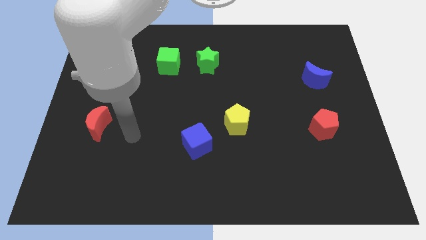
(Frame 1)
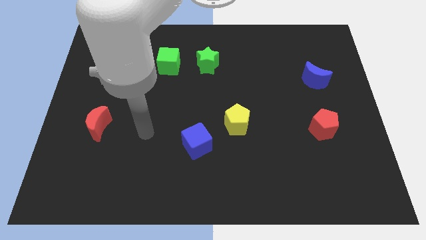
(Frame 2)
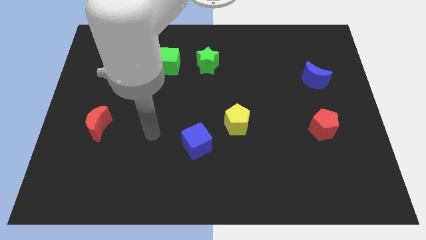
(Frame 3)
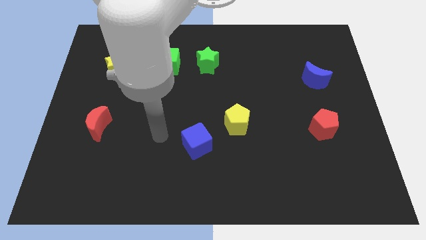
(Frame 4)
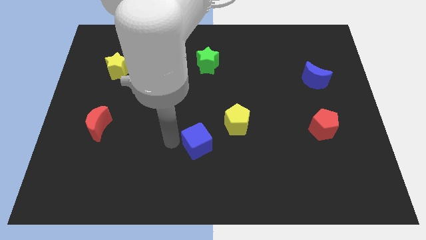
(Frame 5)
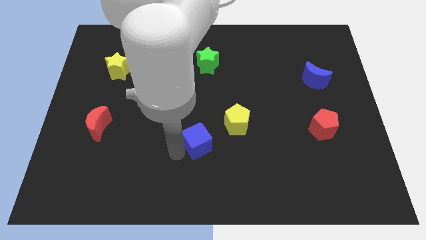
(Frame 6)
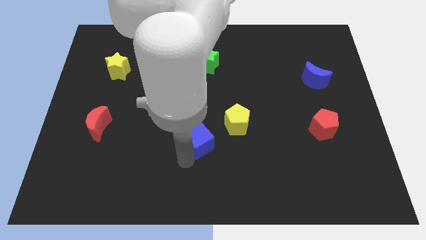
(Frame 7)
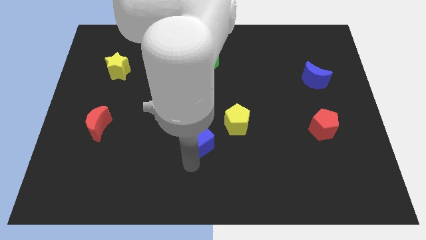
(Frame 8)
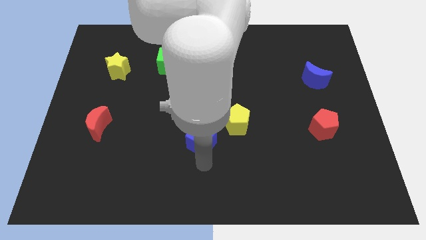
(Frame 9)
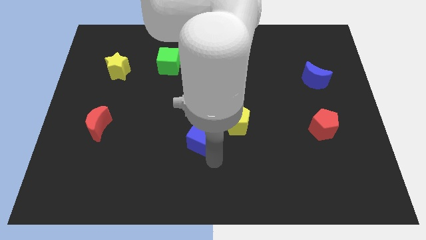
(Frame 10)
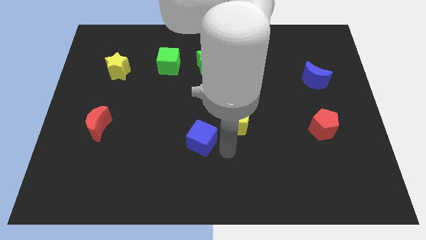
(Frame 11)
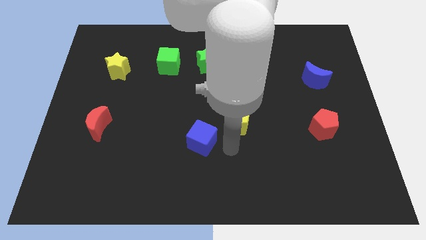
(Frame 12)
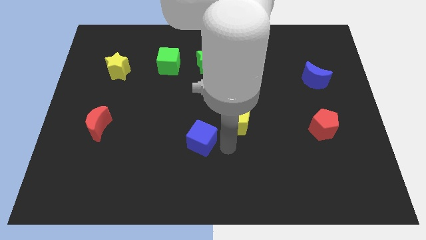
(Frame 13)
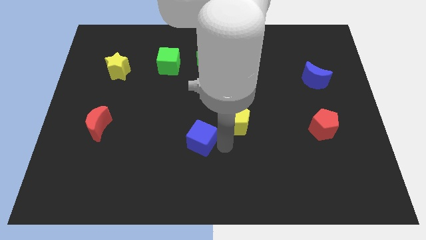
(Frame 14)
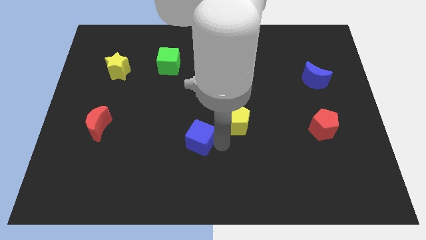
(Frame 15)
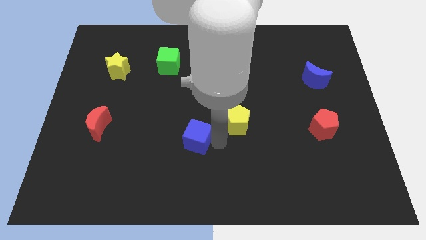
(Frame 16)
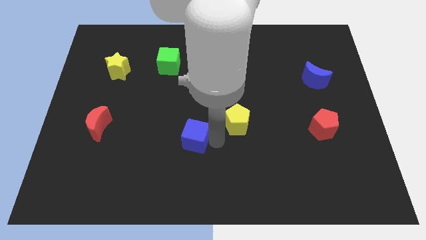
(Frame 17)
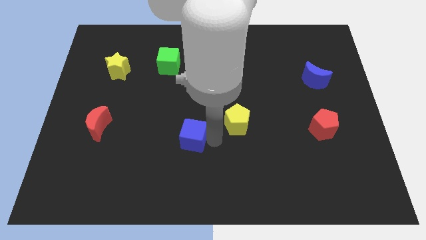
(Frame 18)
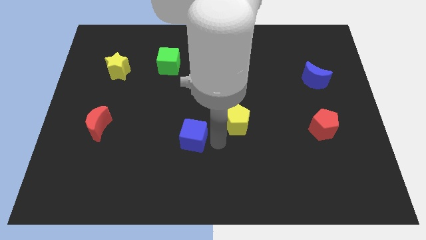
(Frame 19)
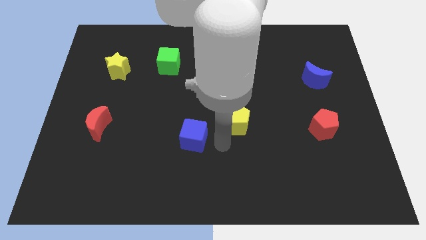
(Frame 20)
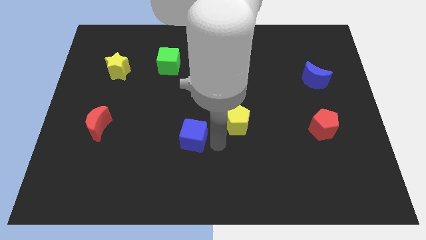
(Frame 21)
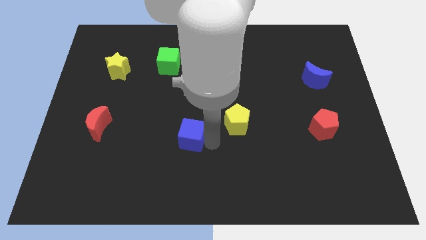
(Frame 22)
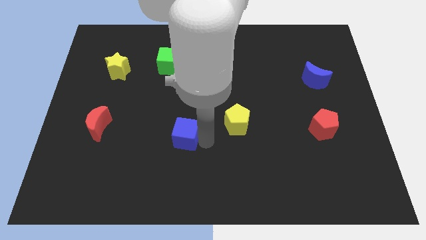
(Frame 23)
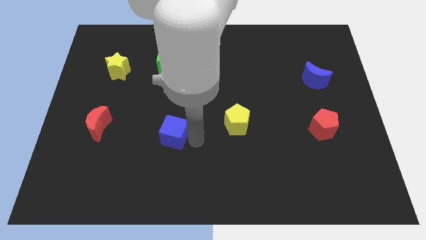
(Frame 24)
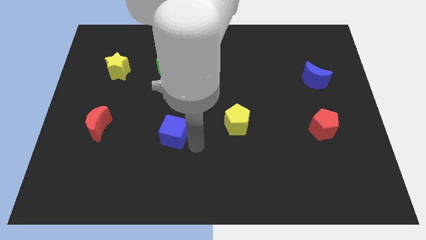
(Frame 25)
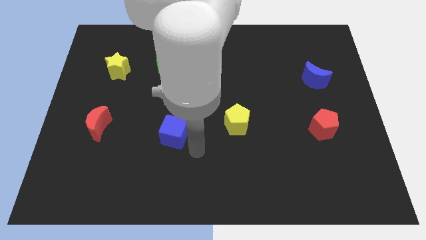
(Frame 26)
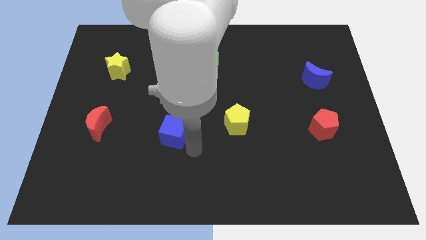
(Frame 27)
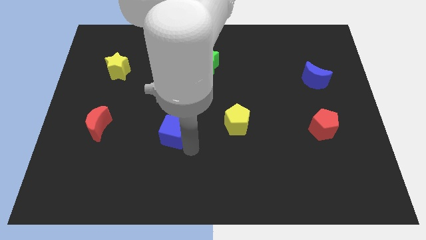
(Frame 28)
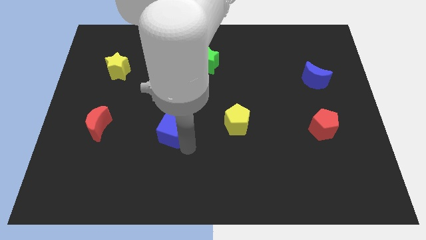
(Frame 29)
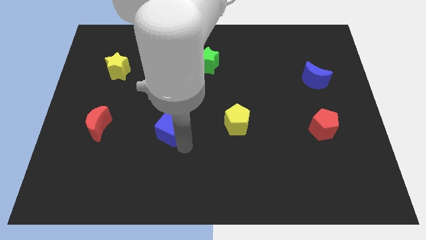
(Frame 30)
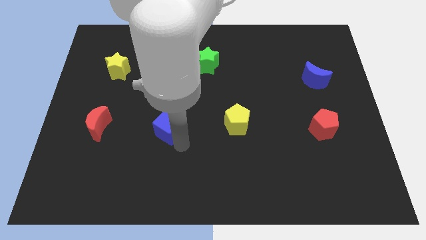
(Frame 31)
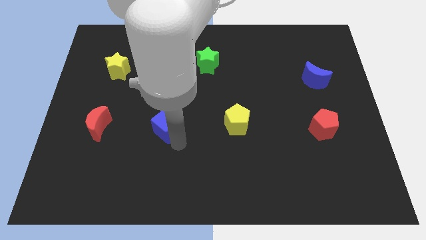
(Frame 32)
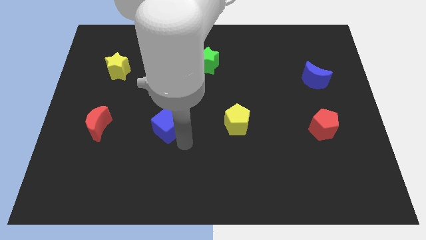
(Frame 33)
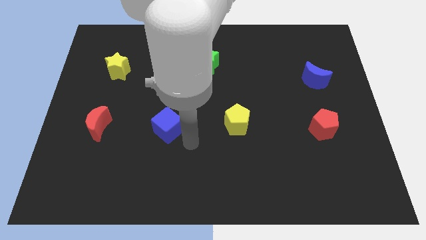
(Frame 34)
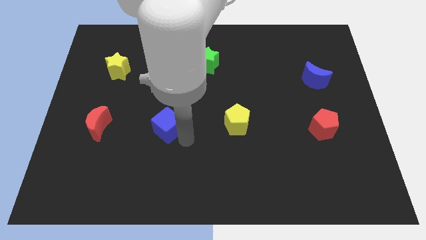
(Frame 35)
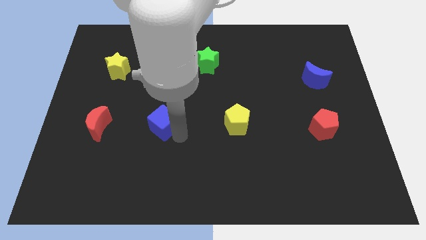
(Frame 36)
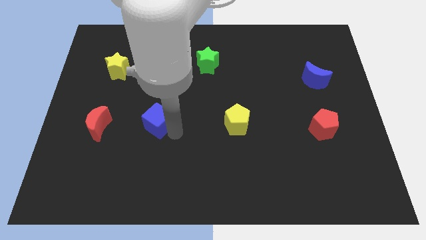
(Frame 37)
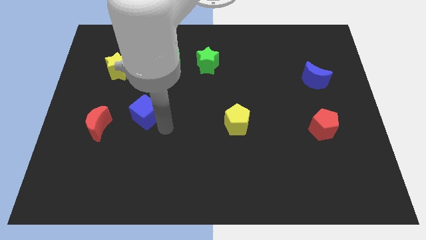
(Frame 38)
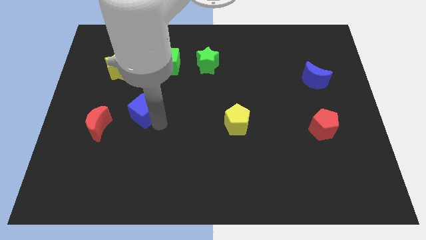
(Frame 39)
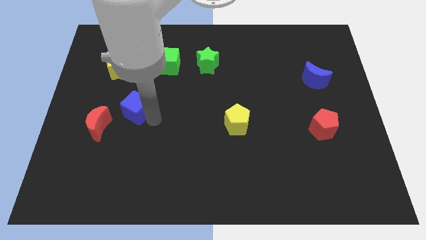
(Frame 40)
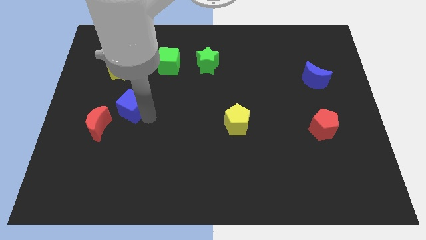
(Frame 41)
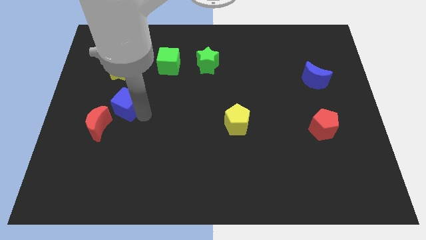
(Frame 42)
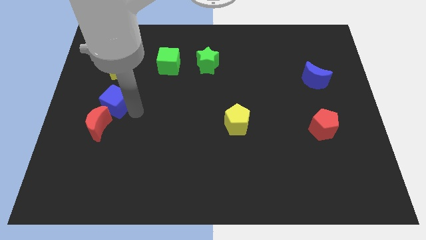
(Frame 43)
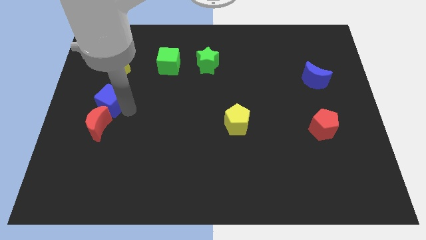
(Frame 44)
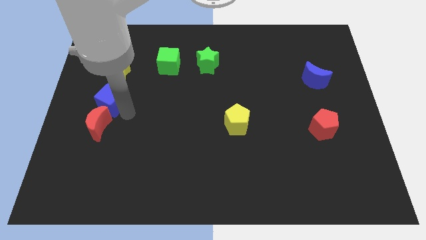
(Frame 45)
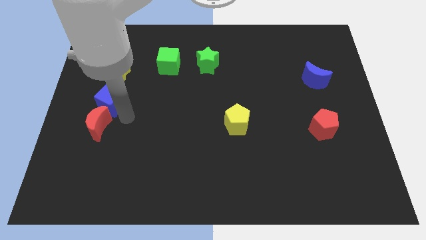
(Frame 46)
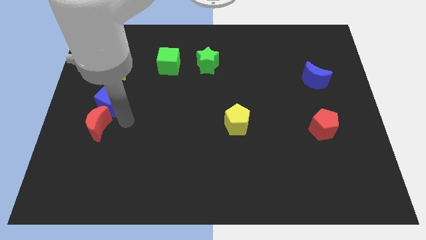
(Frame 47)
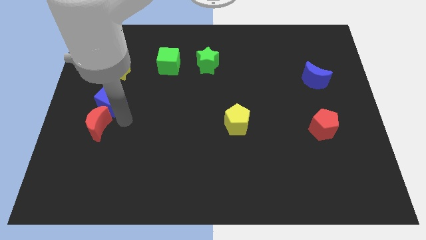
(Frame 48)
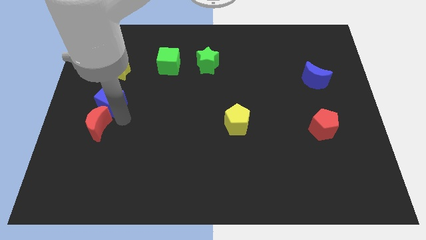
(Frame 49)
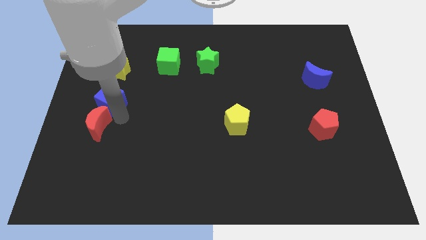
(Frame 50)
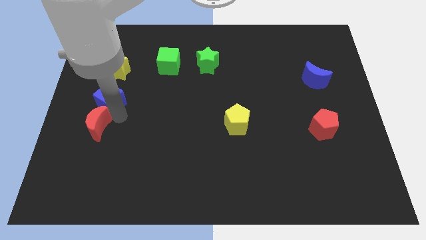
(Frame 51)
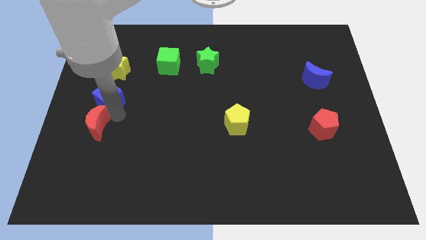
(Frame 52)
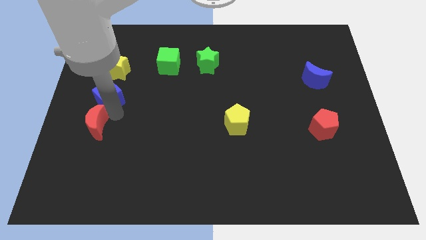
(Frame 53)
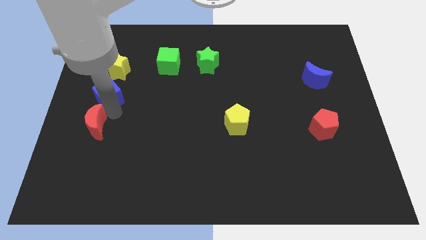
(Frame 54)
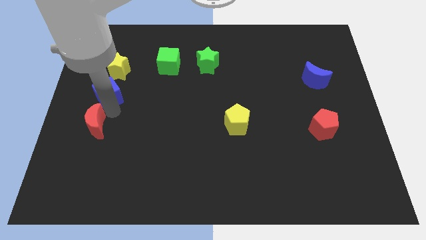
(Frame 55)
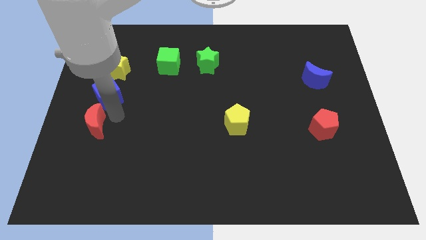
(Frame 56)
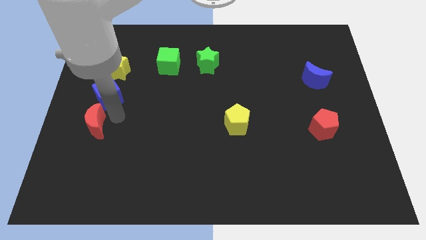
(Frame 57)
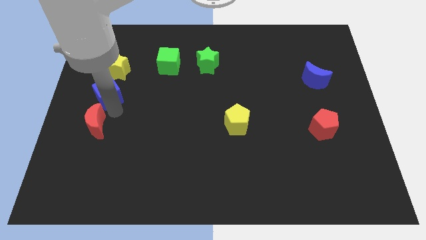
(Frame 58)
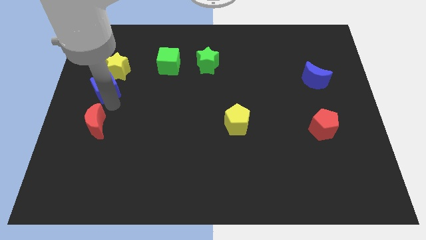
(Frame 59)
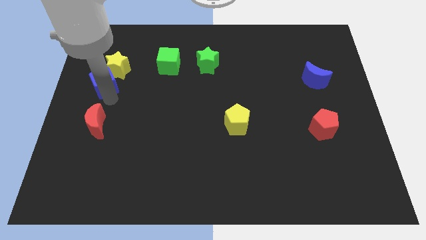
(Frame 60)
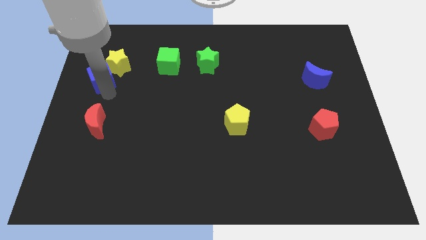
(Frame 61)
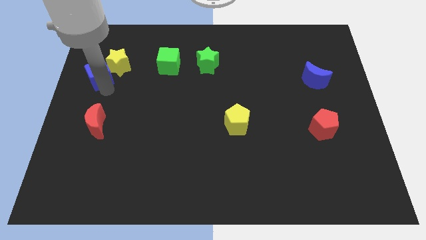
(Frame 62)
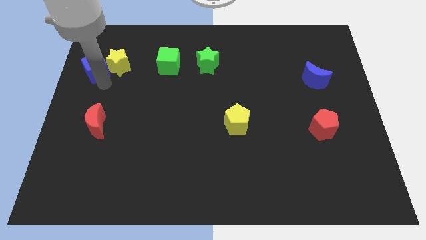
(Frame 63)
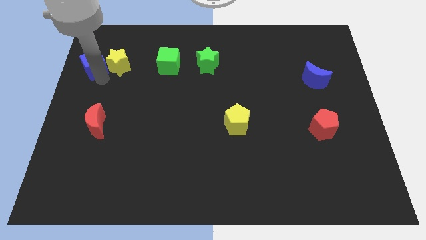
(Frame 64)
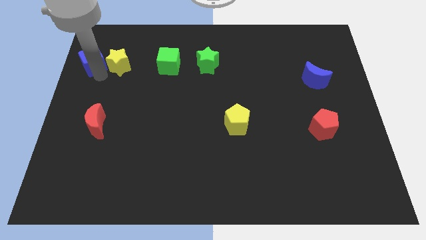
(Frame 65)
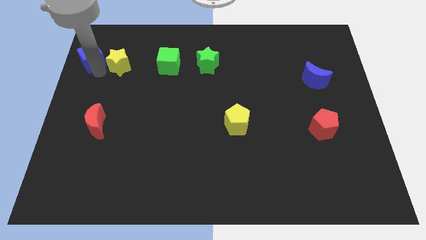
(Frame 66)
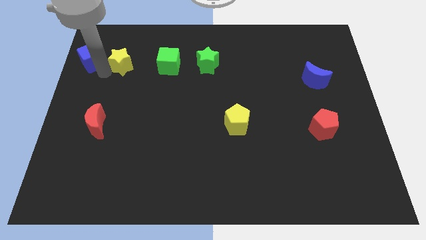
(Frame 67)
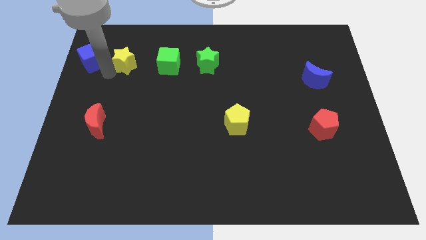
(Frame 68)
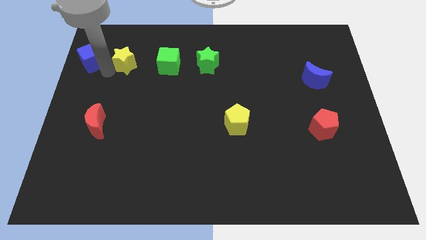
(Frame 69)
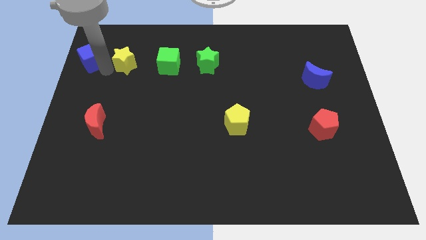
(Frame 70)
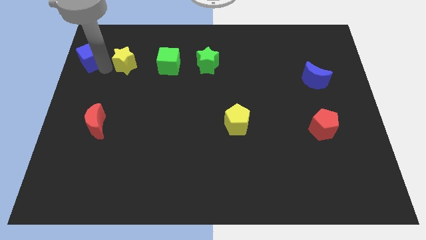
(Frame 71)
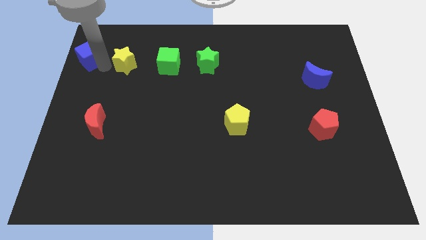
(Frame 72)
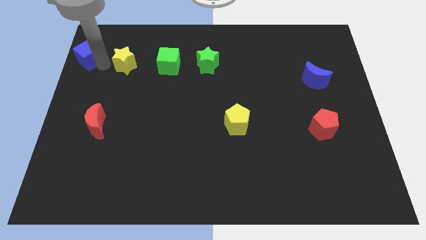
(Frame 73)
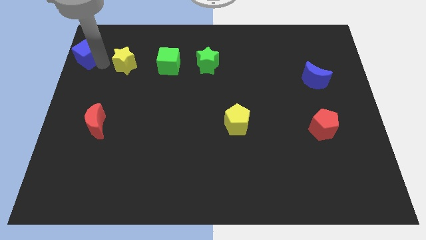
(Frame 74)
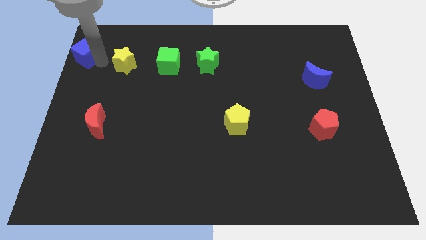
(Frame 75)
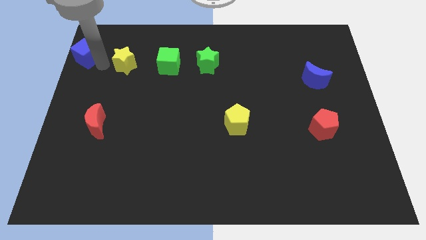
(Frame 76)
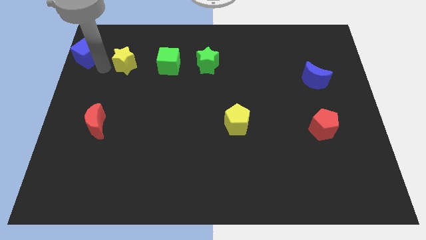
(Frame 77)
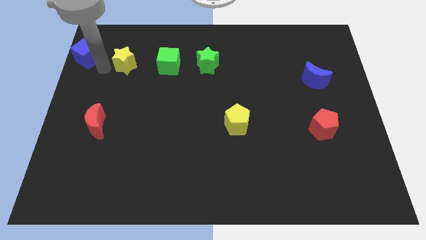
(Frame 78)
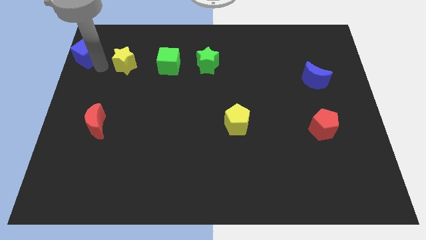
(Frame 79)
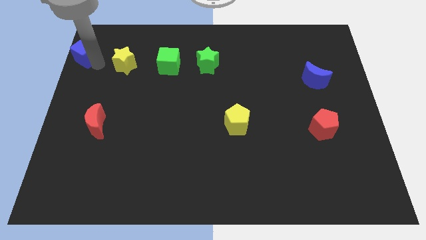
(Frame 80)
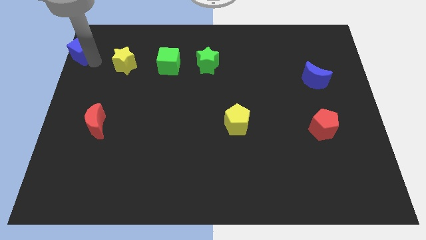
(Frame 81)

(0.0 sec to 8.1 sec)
slide the blue cube to the upper left corner
